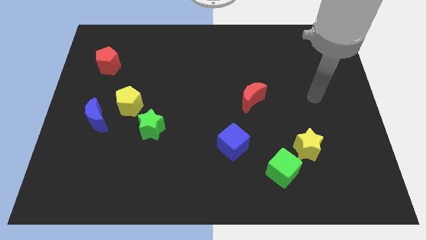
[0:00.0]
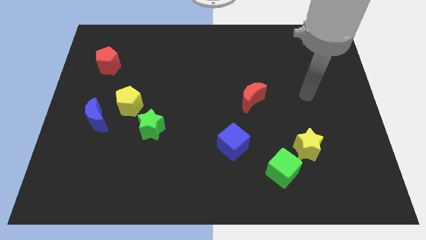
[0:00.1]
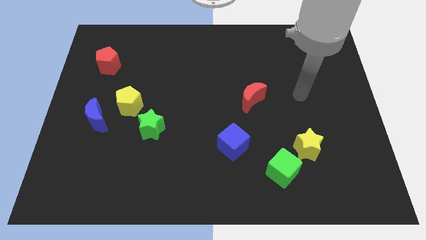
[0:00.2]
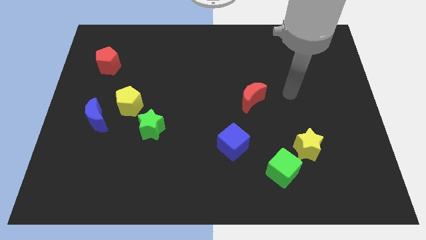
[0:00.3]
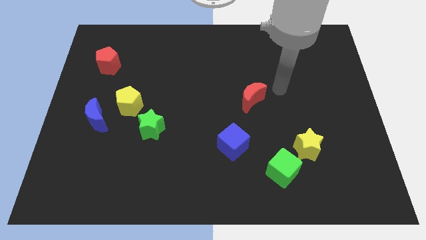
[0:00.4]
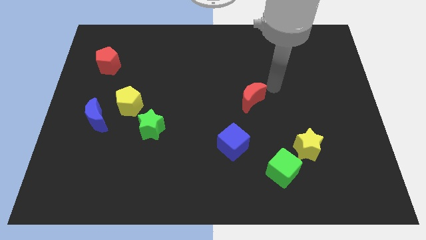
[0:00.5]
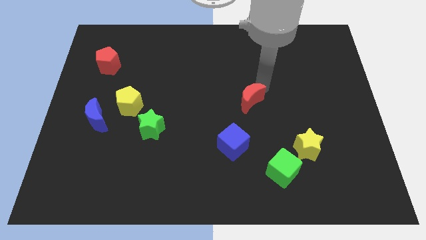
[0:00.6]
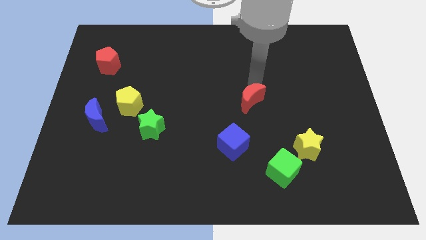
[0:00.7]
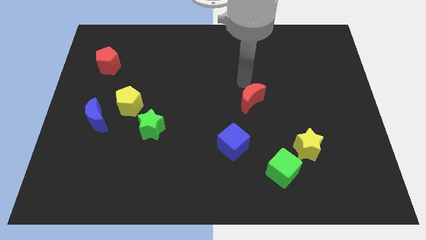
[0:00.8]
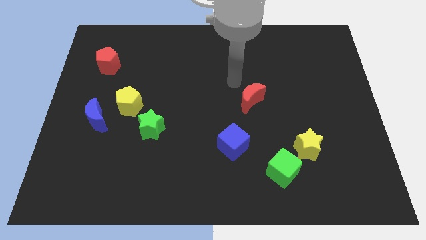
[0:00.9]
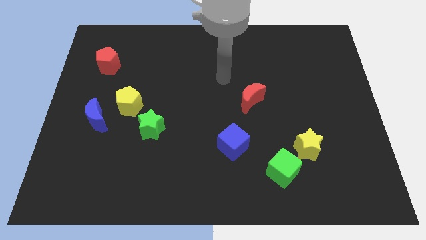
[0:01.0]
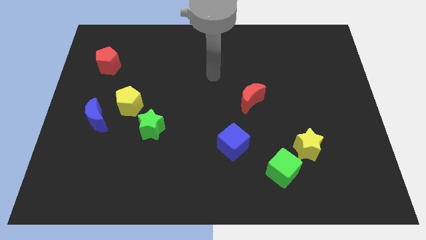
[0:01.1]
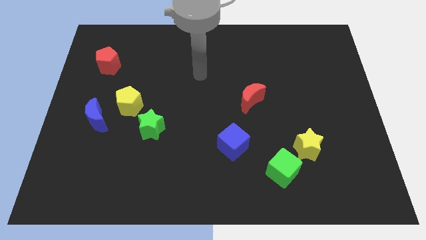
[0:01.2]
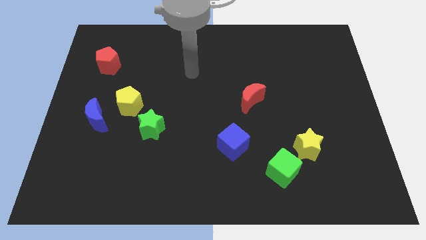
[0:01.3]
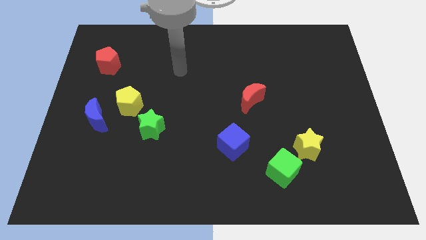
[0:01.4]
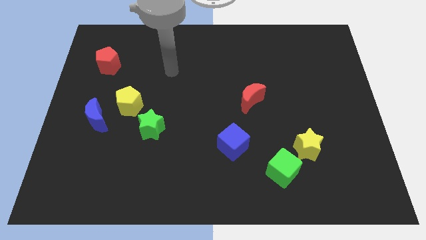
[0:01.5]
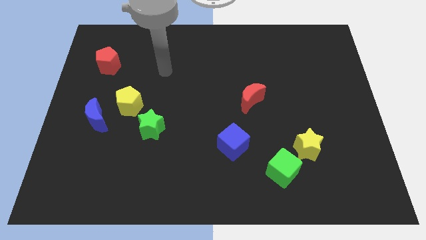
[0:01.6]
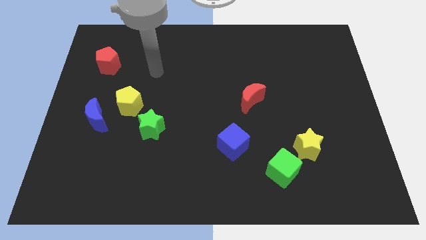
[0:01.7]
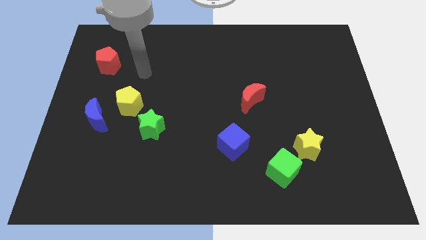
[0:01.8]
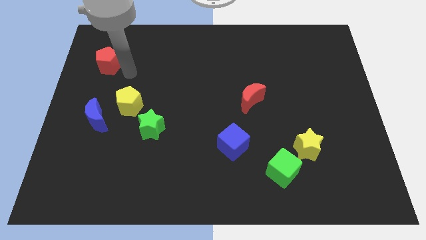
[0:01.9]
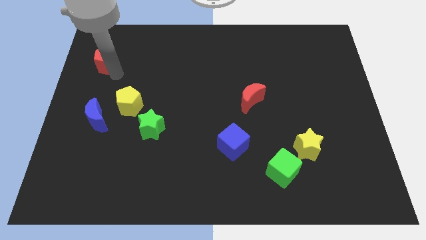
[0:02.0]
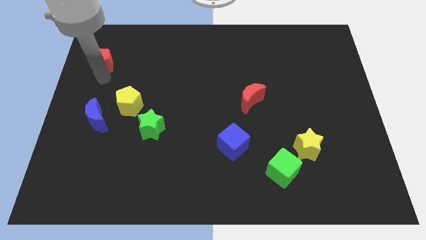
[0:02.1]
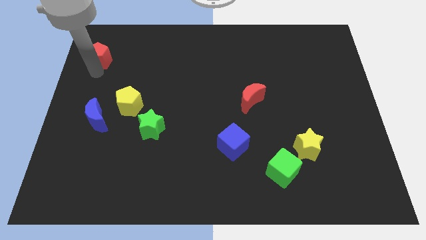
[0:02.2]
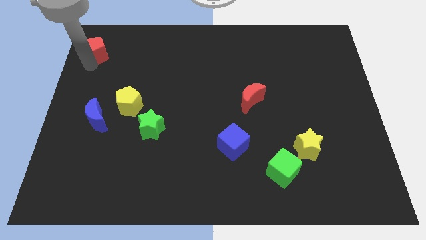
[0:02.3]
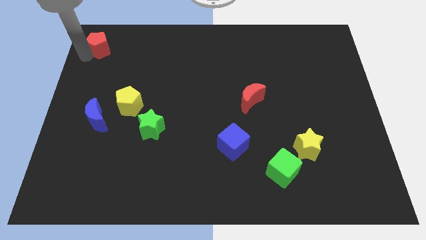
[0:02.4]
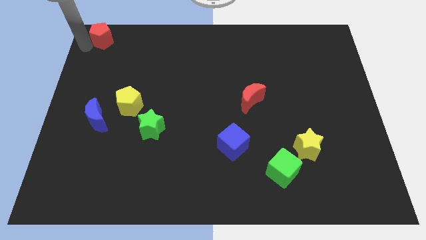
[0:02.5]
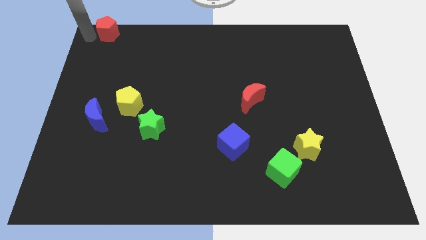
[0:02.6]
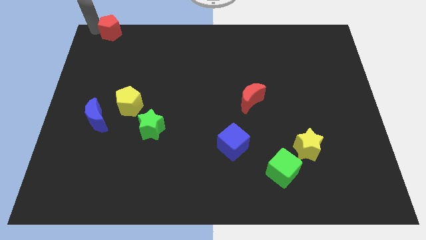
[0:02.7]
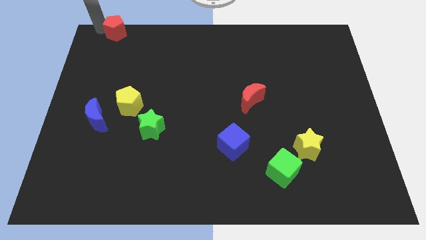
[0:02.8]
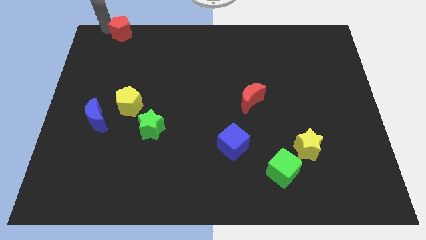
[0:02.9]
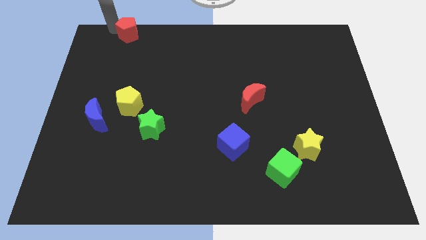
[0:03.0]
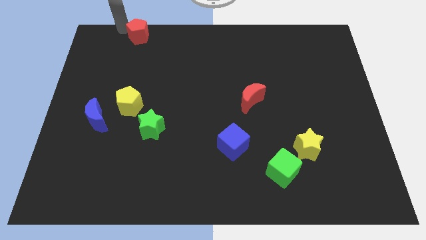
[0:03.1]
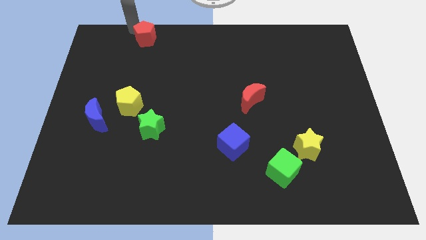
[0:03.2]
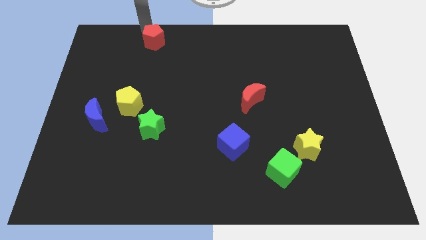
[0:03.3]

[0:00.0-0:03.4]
slightly slide the red pentagon right

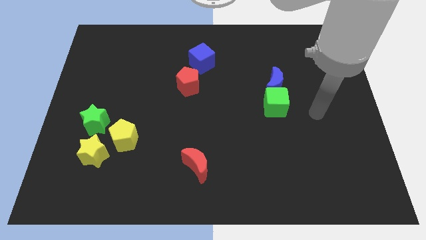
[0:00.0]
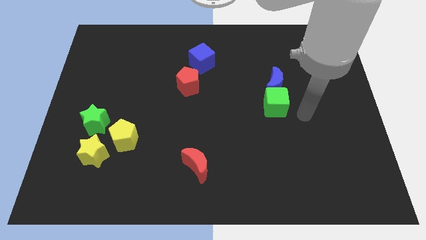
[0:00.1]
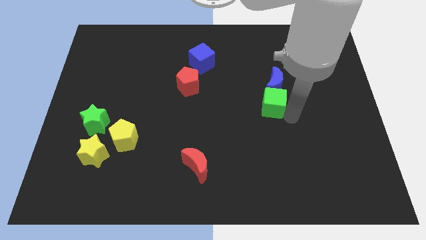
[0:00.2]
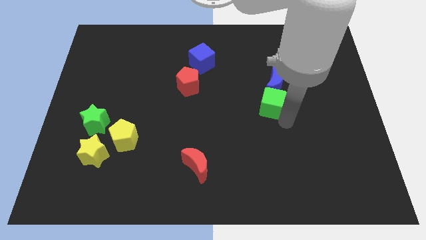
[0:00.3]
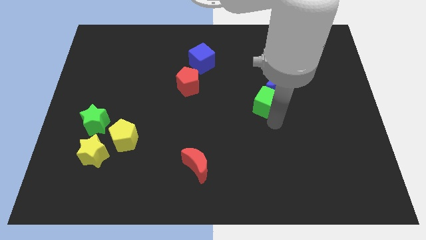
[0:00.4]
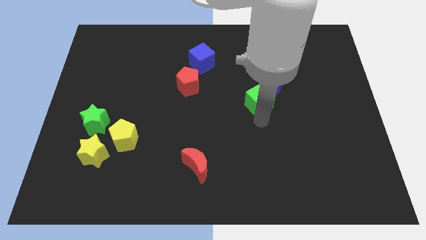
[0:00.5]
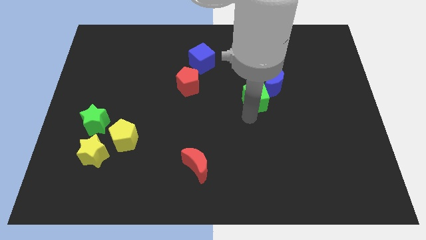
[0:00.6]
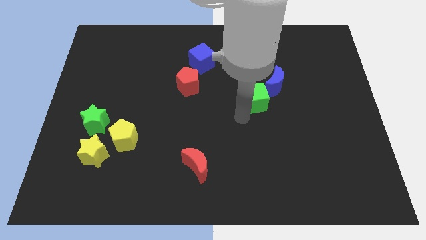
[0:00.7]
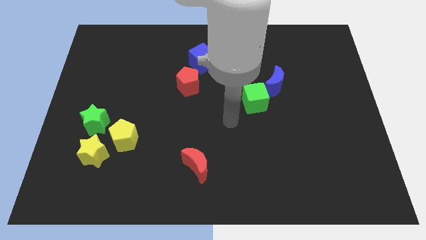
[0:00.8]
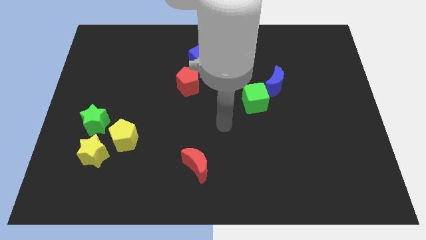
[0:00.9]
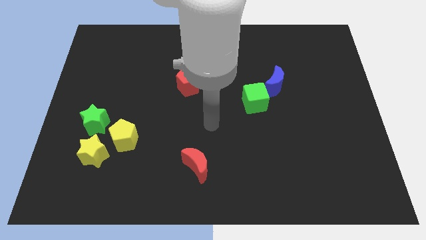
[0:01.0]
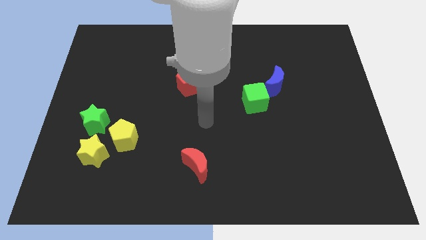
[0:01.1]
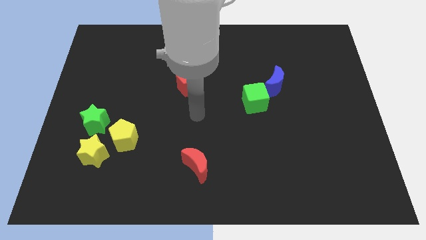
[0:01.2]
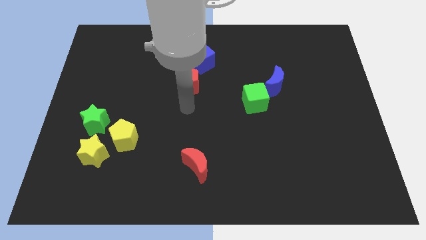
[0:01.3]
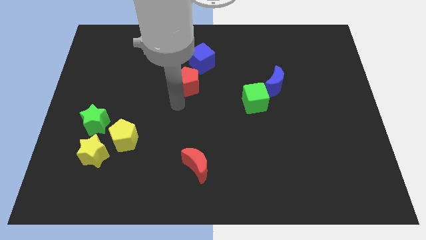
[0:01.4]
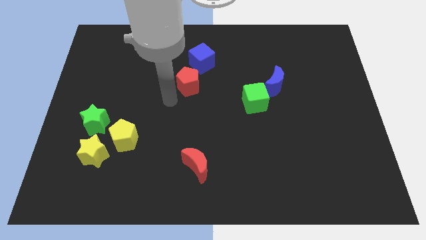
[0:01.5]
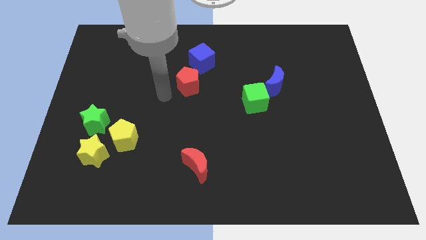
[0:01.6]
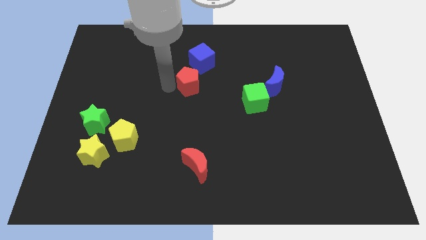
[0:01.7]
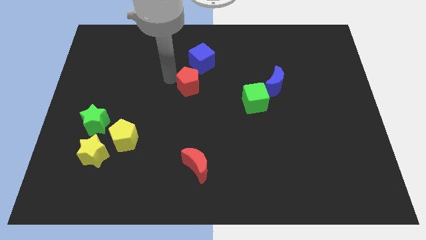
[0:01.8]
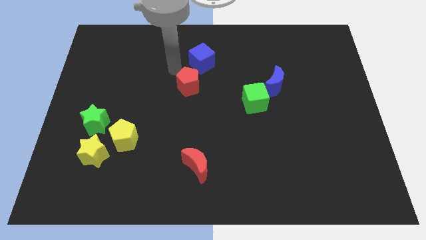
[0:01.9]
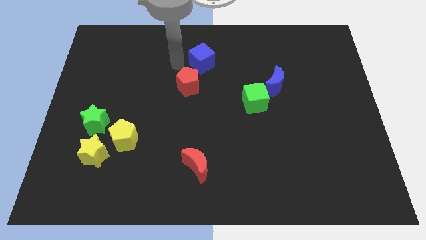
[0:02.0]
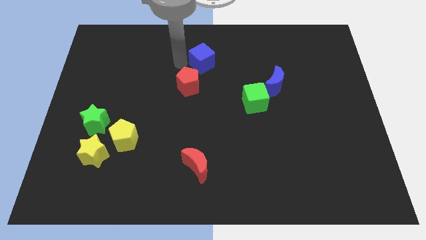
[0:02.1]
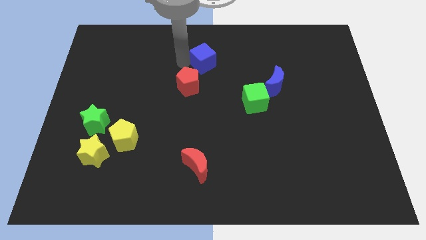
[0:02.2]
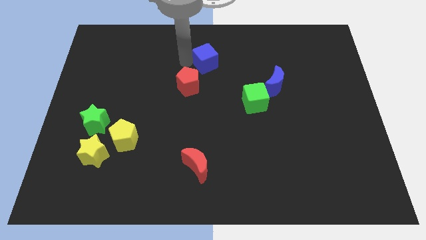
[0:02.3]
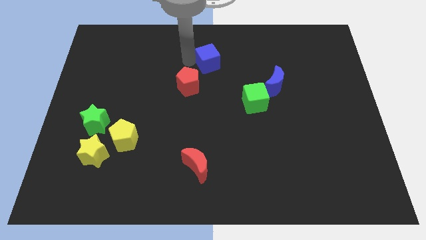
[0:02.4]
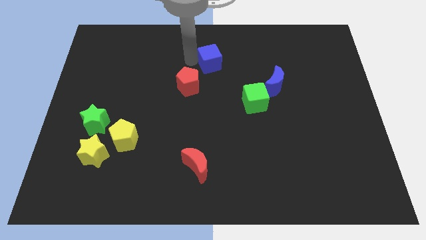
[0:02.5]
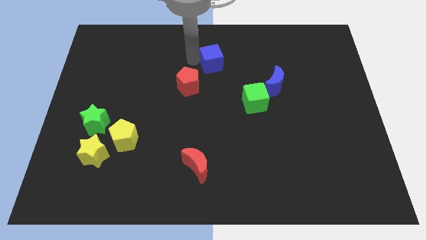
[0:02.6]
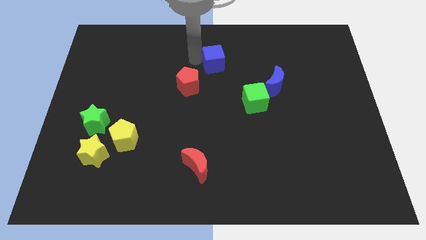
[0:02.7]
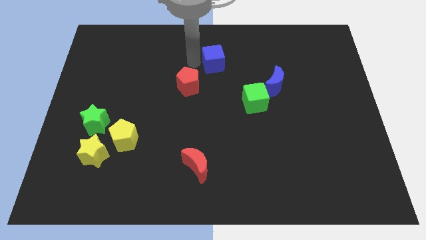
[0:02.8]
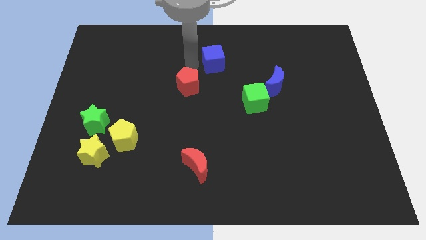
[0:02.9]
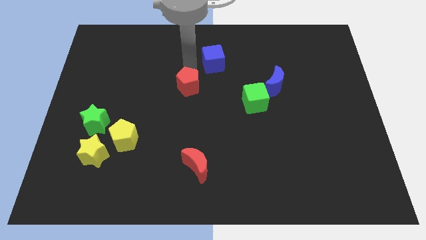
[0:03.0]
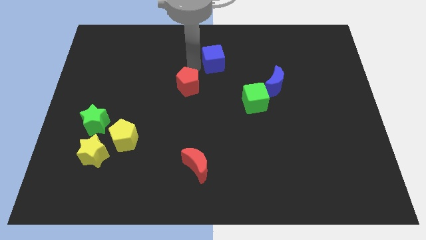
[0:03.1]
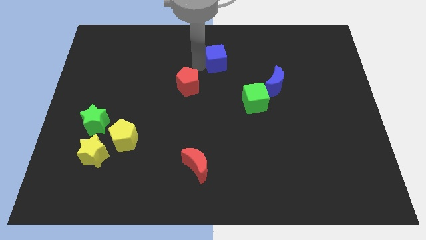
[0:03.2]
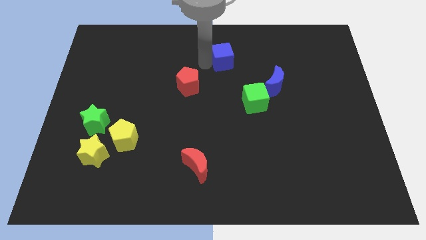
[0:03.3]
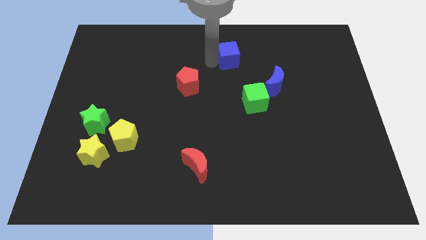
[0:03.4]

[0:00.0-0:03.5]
push the blue cube a little to the right

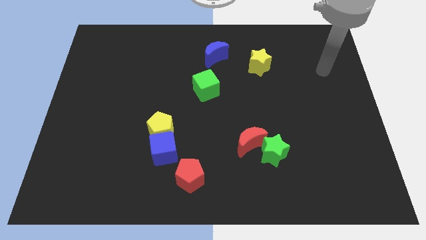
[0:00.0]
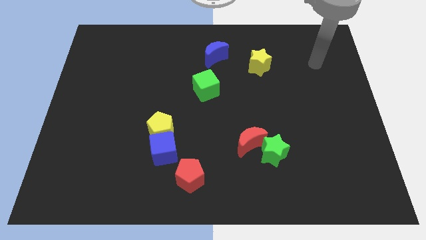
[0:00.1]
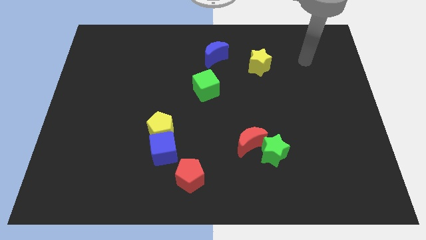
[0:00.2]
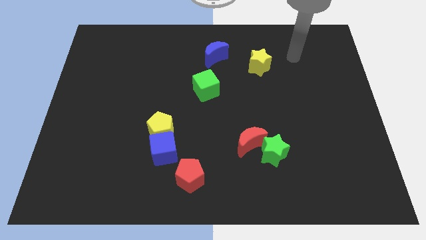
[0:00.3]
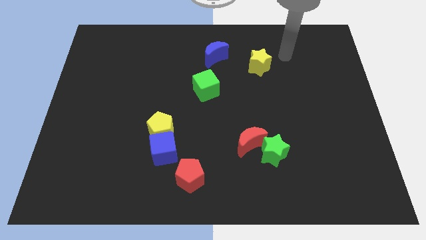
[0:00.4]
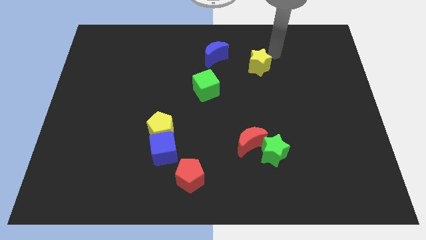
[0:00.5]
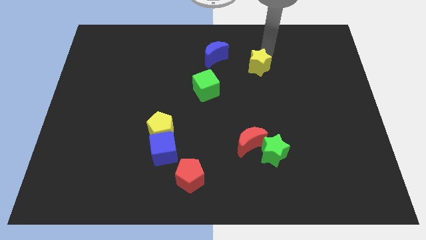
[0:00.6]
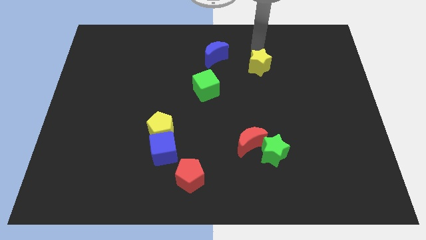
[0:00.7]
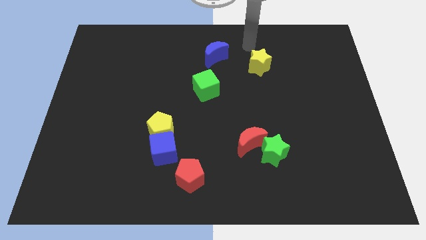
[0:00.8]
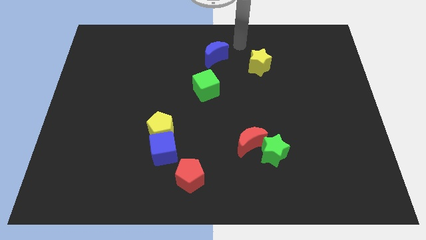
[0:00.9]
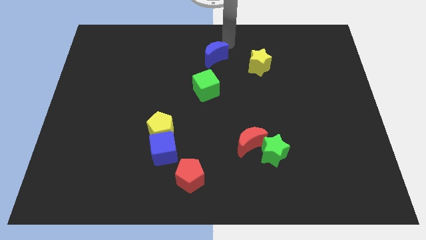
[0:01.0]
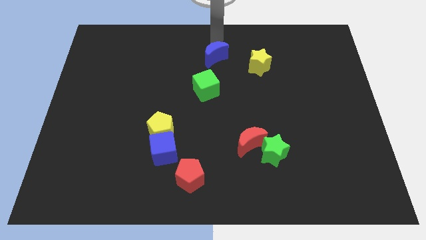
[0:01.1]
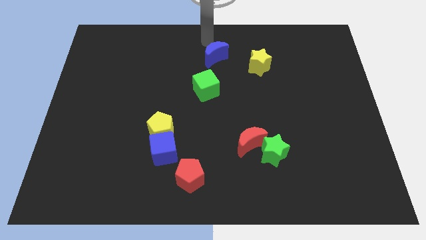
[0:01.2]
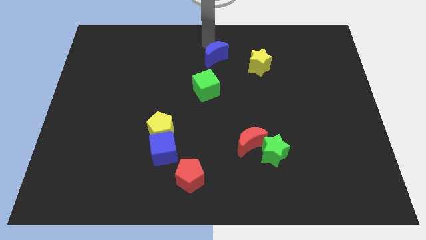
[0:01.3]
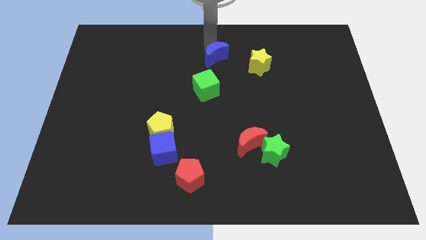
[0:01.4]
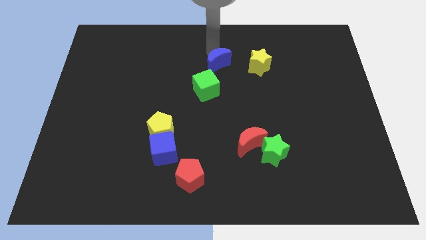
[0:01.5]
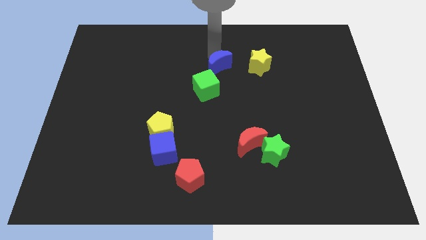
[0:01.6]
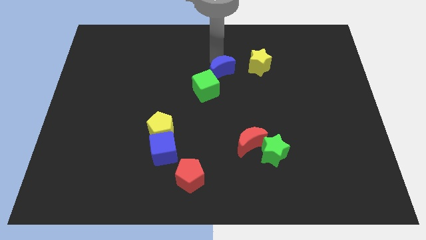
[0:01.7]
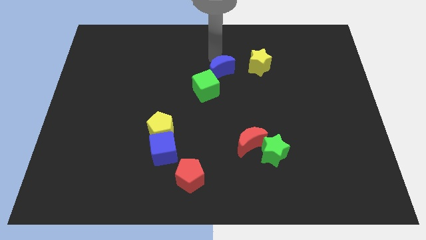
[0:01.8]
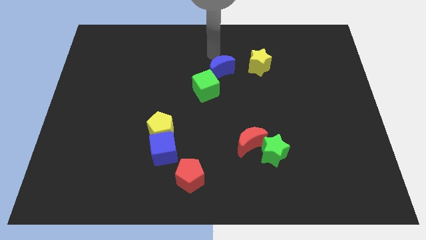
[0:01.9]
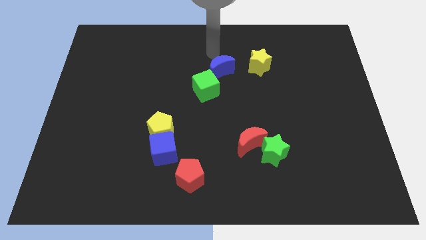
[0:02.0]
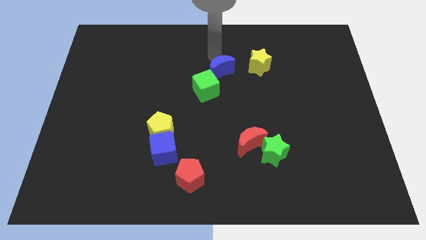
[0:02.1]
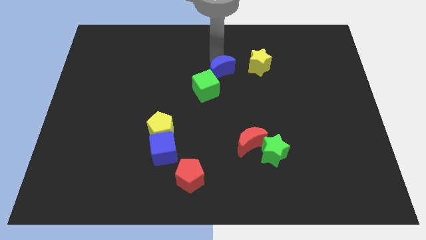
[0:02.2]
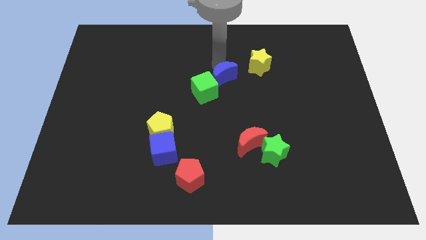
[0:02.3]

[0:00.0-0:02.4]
slightly move the blue moon down
